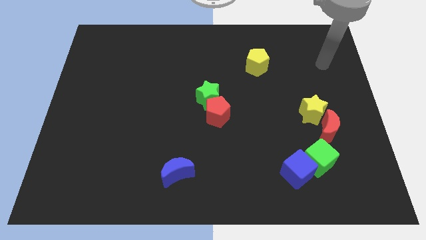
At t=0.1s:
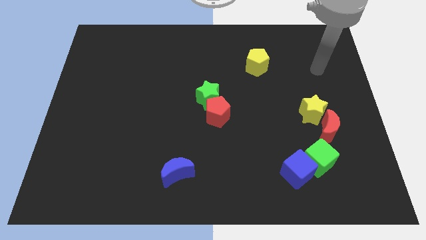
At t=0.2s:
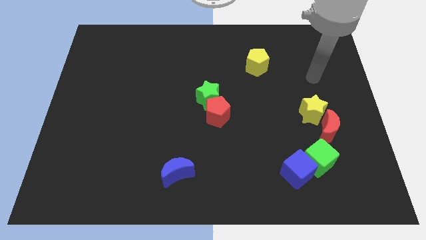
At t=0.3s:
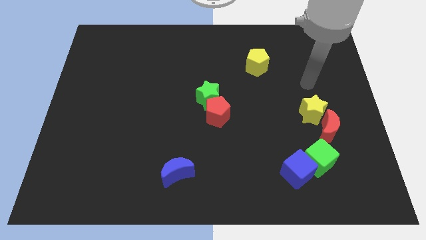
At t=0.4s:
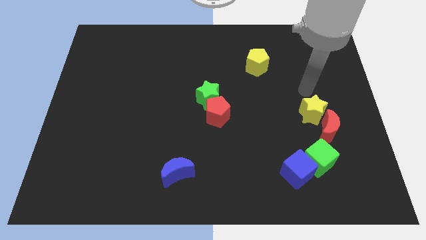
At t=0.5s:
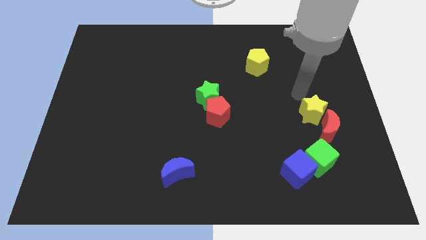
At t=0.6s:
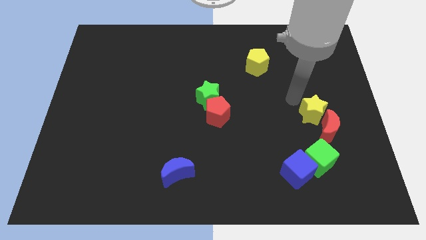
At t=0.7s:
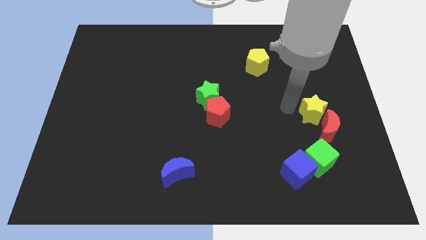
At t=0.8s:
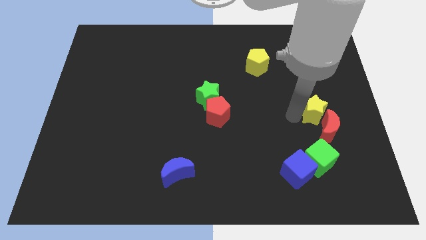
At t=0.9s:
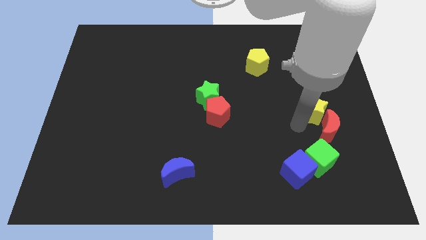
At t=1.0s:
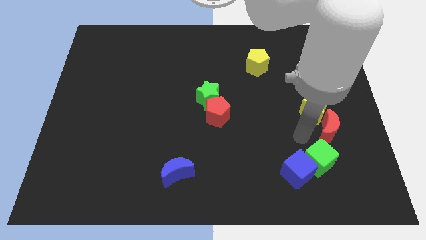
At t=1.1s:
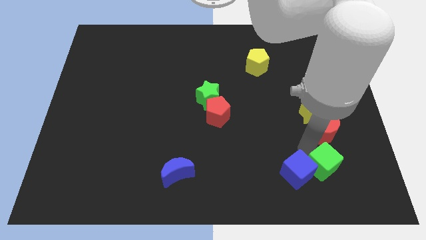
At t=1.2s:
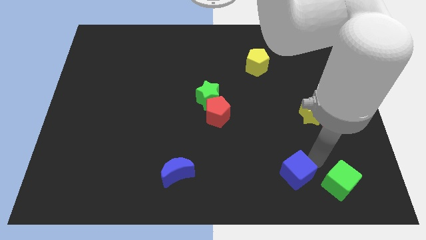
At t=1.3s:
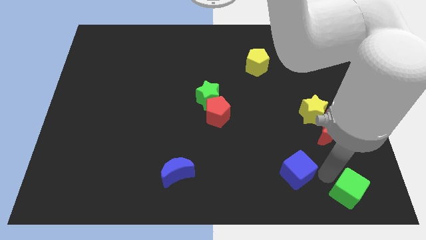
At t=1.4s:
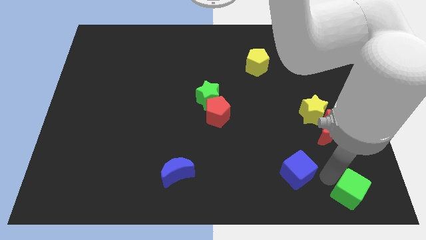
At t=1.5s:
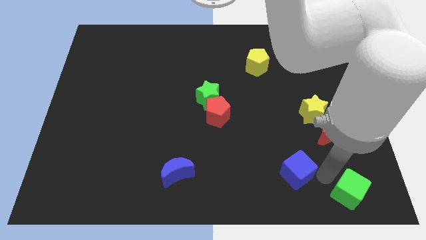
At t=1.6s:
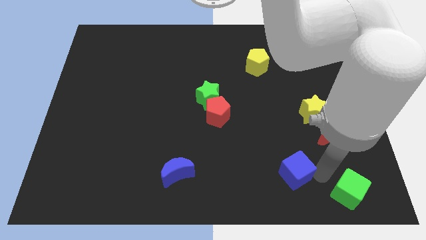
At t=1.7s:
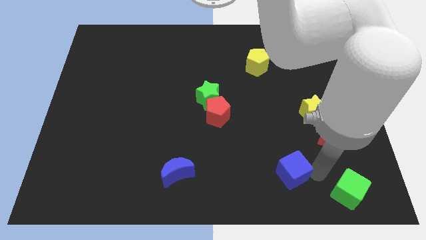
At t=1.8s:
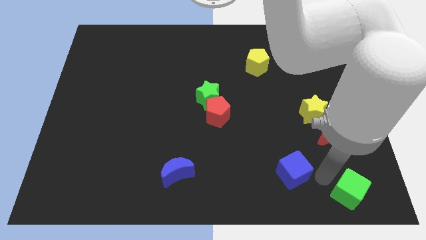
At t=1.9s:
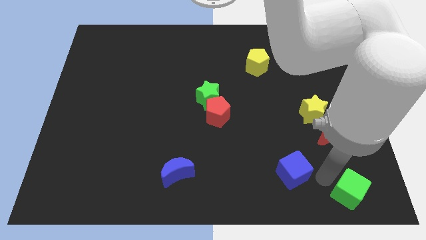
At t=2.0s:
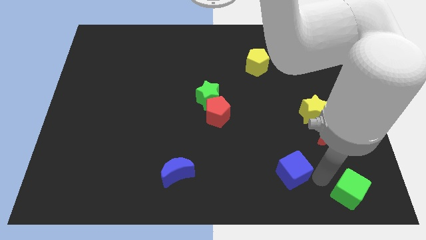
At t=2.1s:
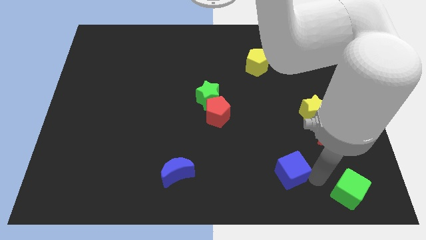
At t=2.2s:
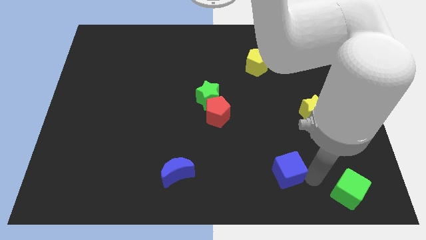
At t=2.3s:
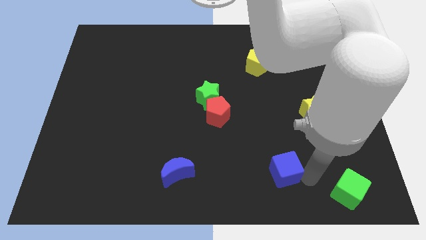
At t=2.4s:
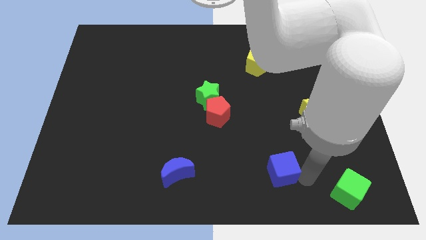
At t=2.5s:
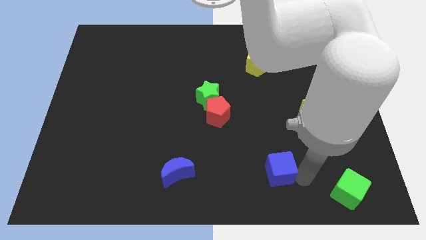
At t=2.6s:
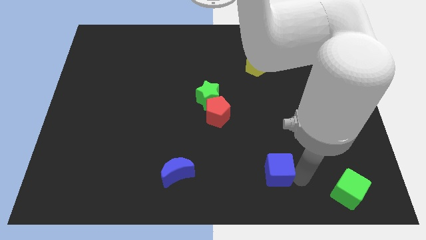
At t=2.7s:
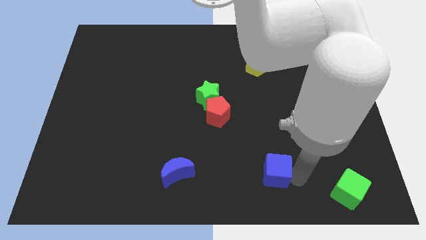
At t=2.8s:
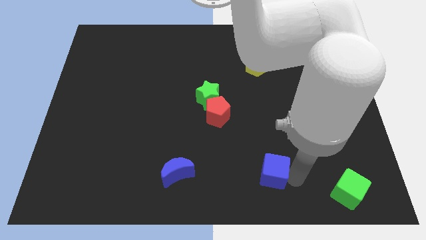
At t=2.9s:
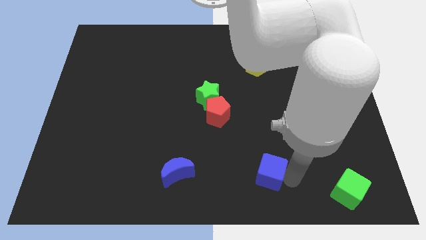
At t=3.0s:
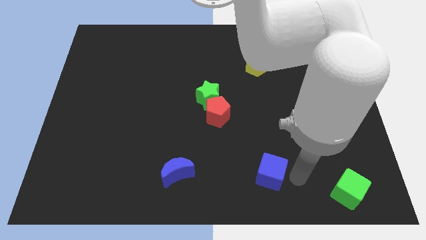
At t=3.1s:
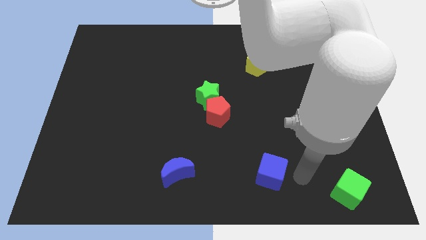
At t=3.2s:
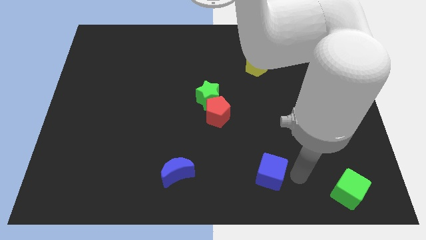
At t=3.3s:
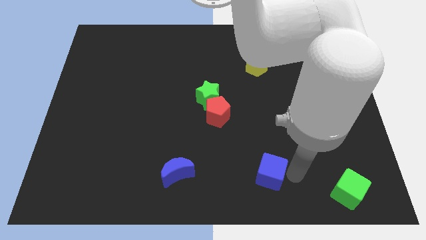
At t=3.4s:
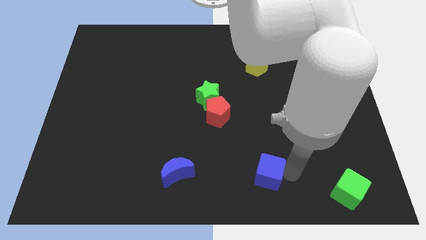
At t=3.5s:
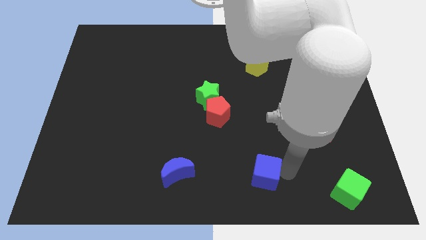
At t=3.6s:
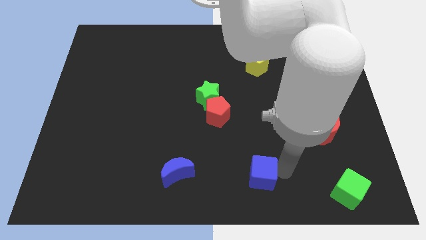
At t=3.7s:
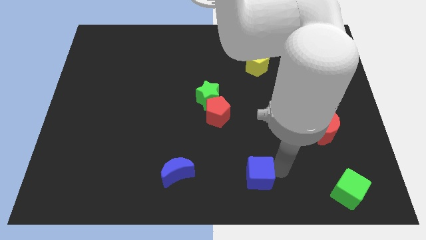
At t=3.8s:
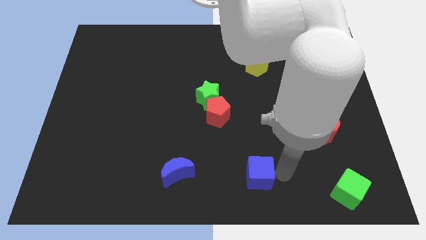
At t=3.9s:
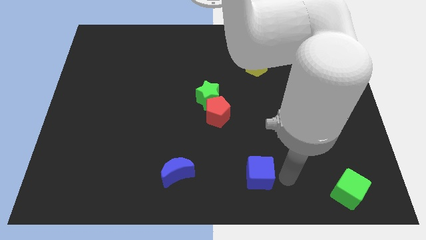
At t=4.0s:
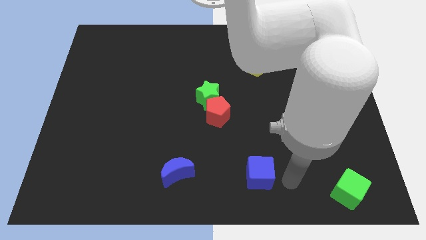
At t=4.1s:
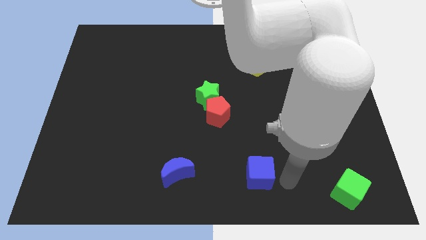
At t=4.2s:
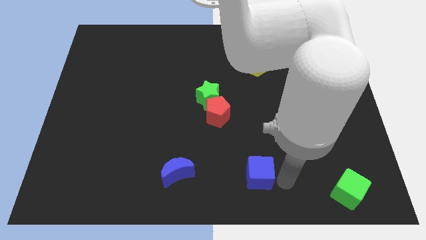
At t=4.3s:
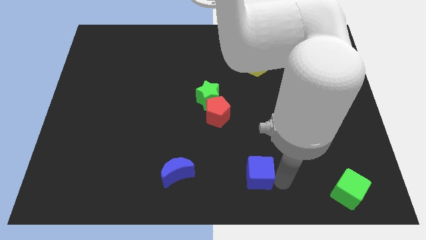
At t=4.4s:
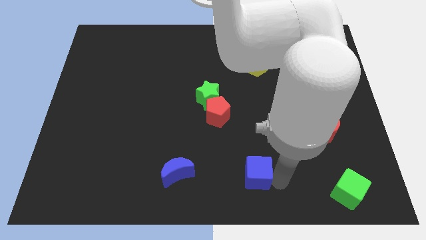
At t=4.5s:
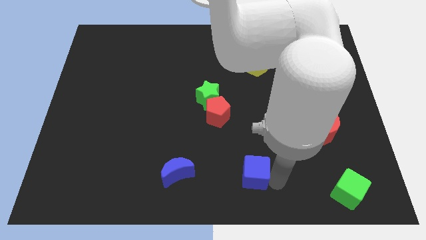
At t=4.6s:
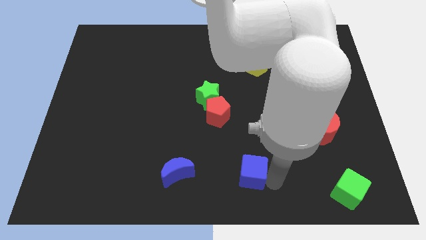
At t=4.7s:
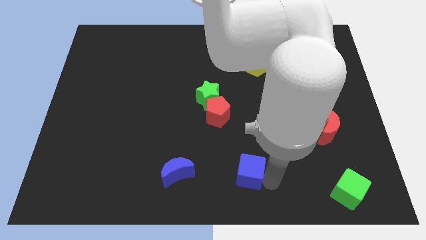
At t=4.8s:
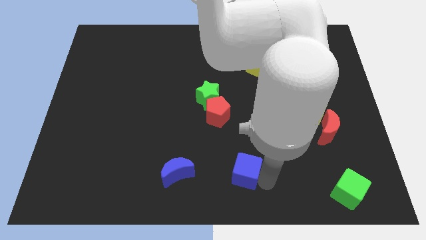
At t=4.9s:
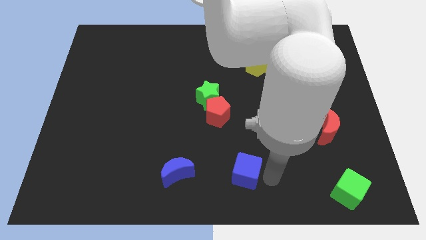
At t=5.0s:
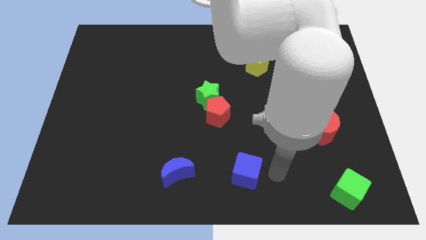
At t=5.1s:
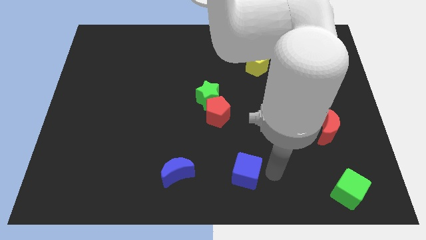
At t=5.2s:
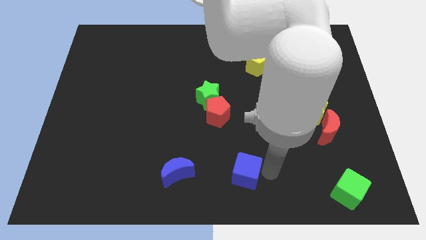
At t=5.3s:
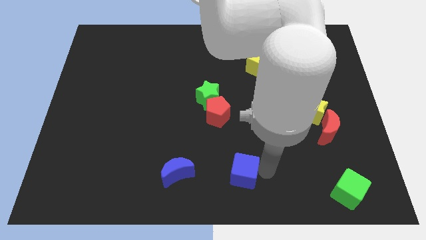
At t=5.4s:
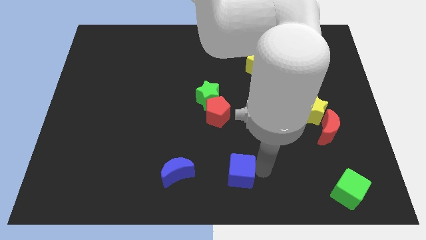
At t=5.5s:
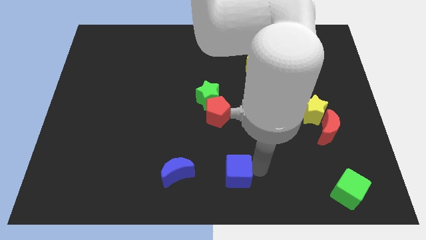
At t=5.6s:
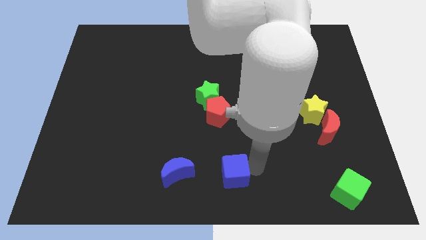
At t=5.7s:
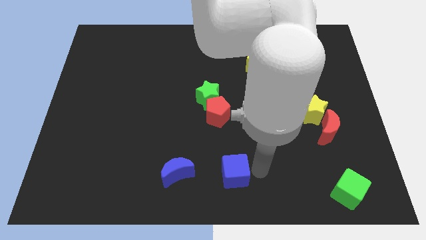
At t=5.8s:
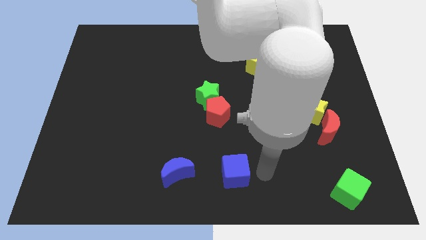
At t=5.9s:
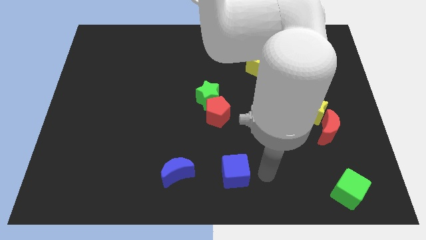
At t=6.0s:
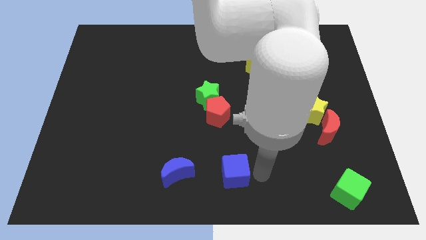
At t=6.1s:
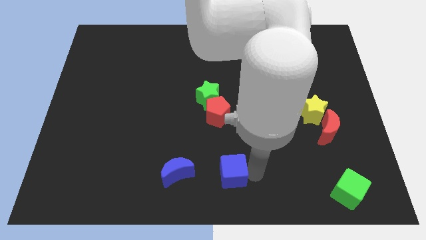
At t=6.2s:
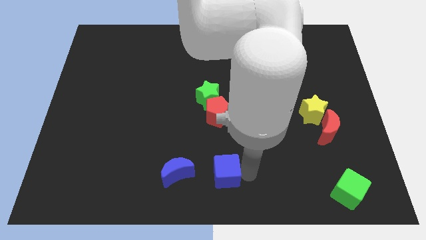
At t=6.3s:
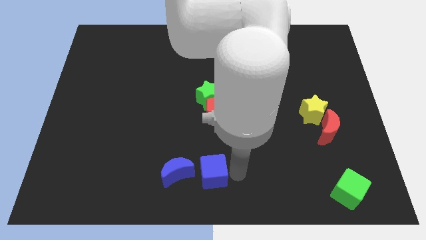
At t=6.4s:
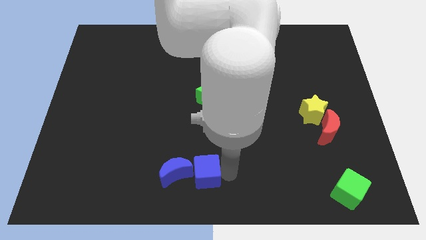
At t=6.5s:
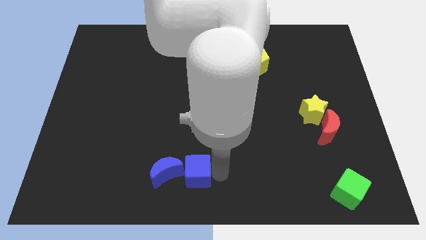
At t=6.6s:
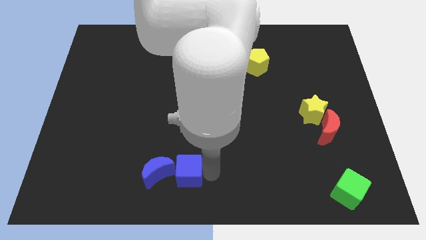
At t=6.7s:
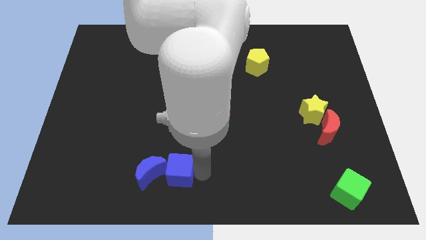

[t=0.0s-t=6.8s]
move the blue cube next to the blue moon

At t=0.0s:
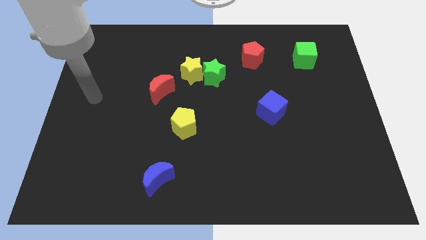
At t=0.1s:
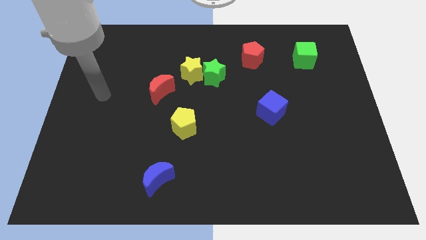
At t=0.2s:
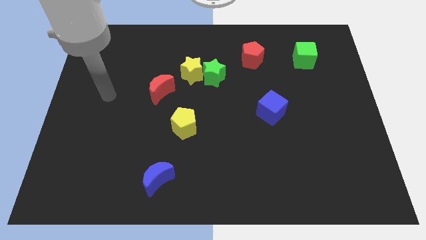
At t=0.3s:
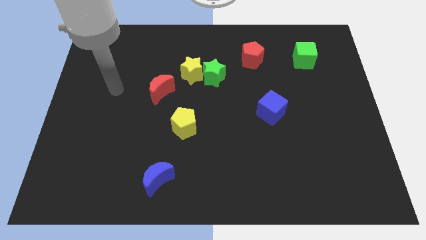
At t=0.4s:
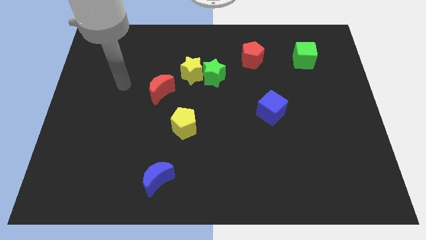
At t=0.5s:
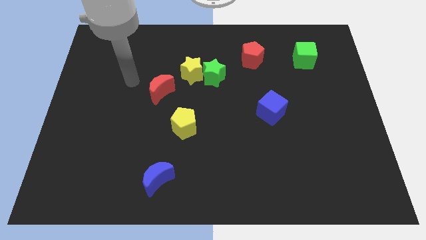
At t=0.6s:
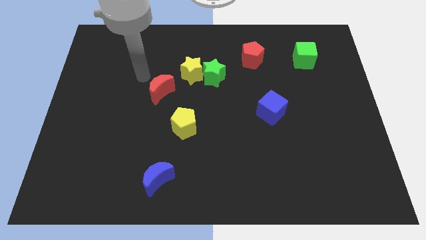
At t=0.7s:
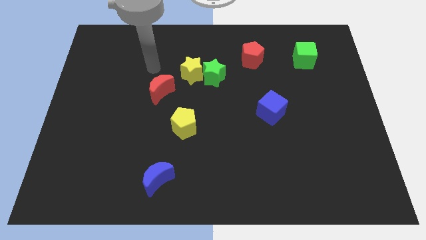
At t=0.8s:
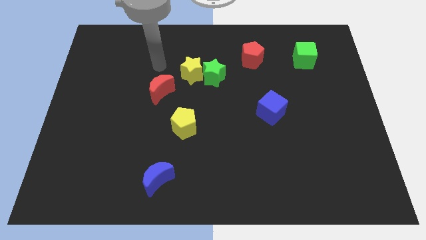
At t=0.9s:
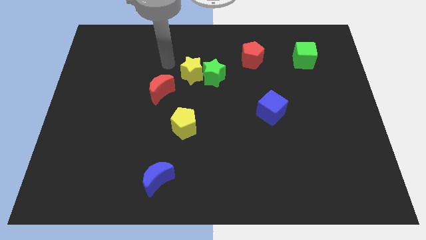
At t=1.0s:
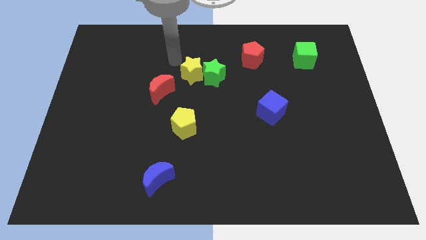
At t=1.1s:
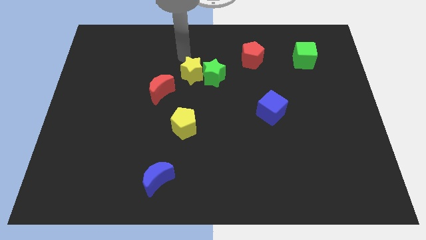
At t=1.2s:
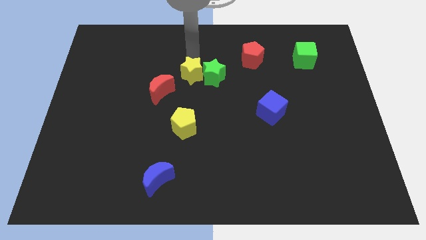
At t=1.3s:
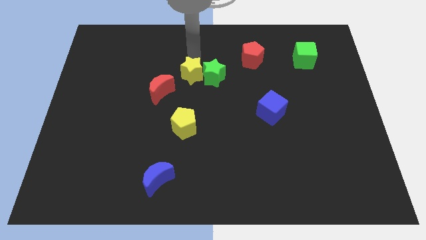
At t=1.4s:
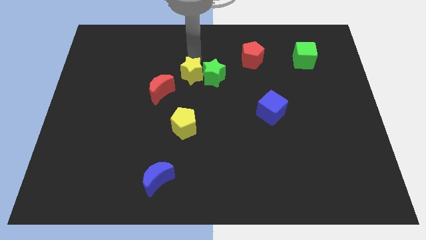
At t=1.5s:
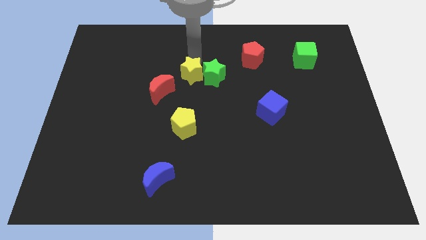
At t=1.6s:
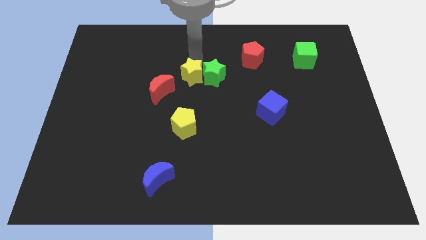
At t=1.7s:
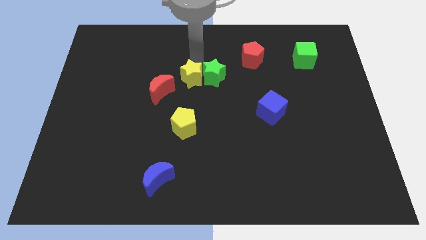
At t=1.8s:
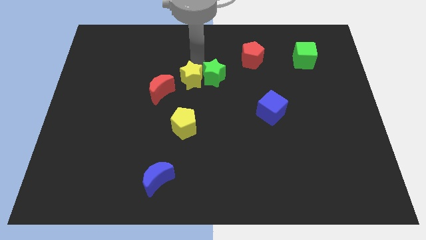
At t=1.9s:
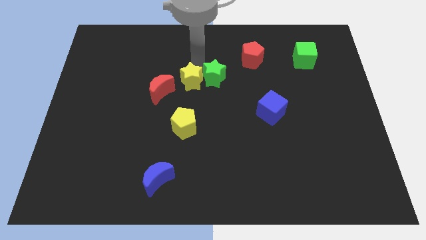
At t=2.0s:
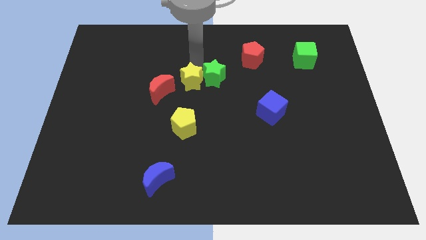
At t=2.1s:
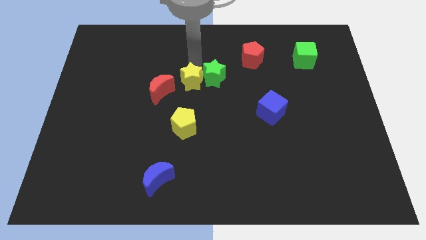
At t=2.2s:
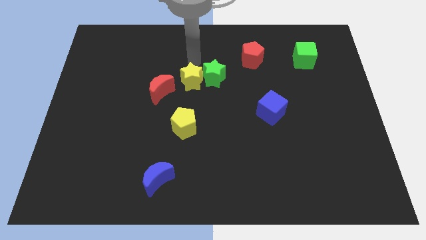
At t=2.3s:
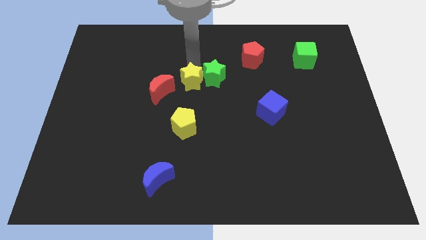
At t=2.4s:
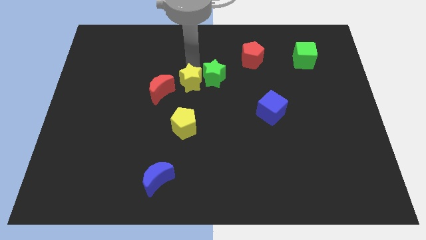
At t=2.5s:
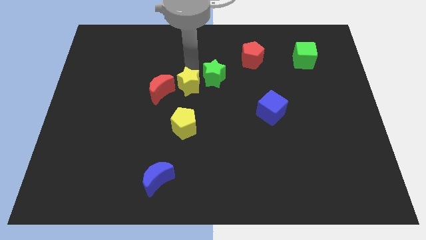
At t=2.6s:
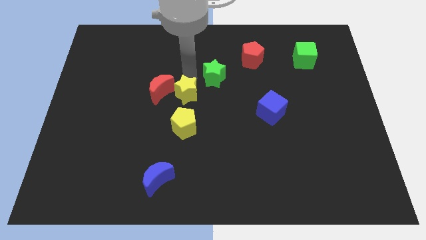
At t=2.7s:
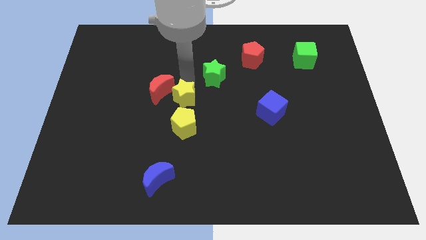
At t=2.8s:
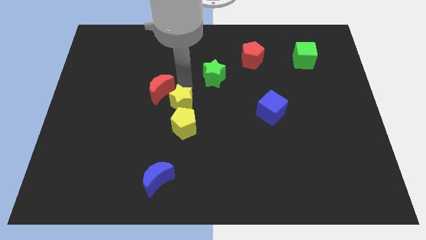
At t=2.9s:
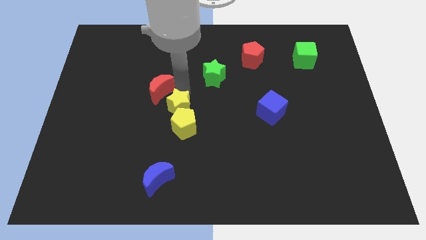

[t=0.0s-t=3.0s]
slide the yellow star to the yellow pentagon
